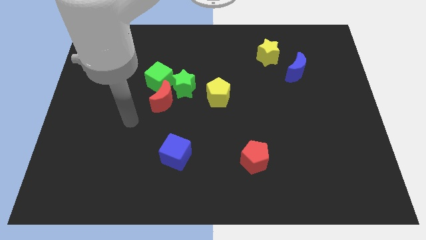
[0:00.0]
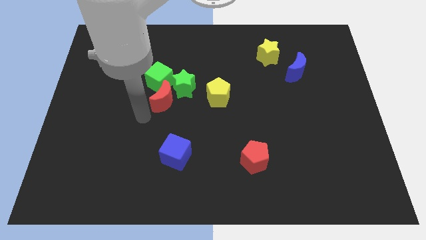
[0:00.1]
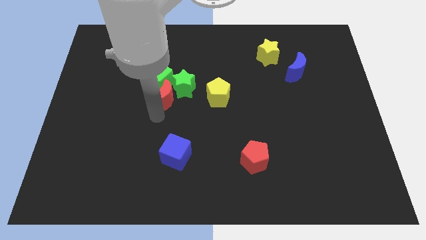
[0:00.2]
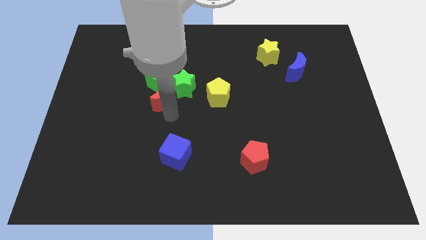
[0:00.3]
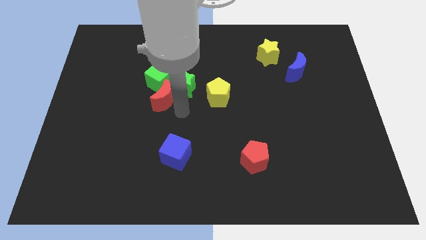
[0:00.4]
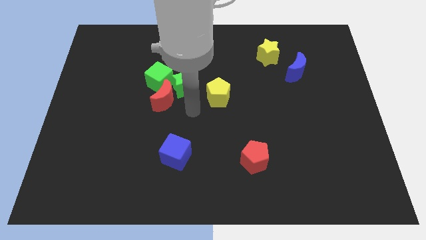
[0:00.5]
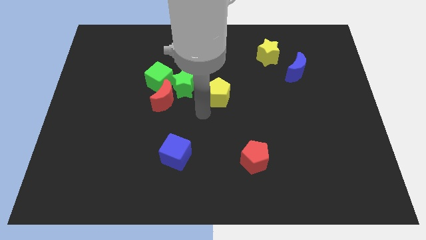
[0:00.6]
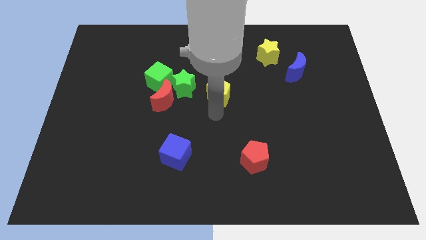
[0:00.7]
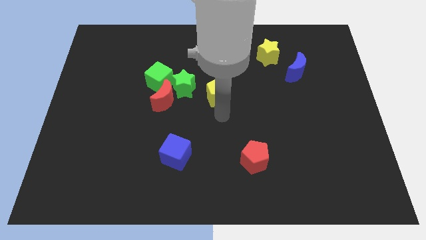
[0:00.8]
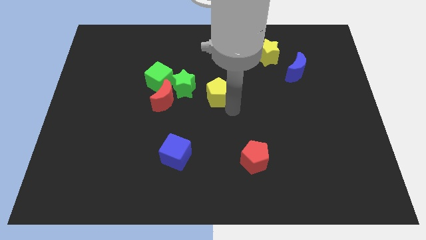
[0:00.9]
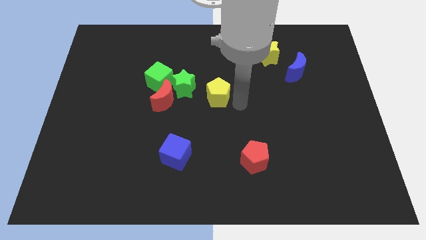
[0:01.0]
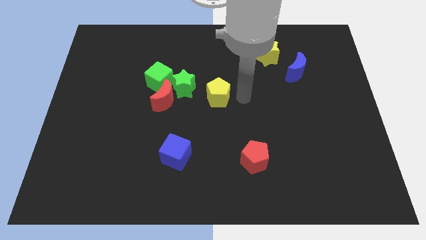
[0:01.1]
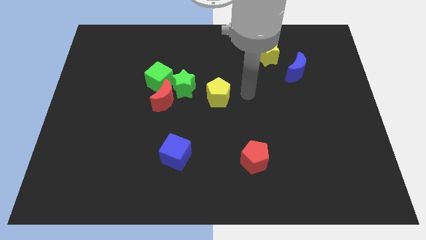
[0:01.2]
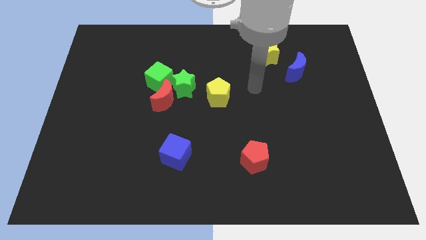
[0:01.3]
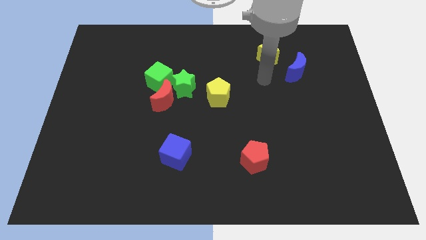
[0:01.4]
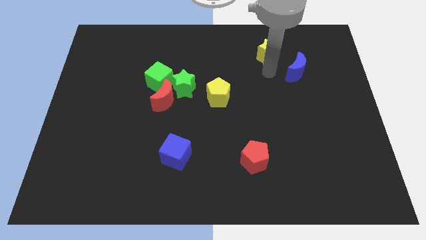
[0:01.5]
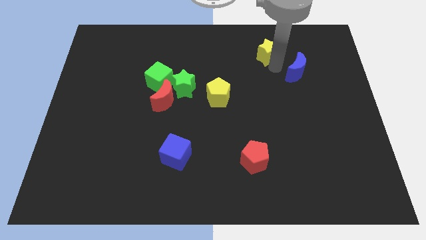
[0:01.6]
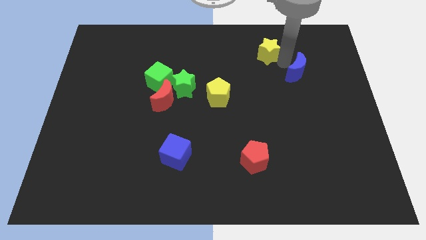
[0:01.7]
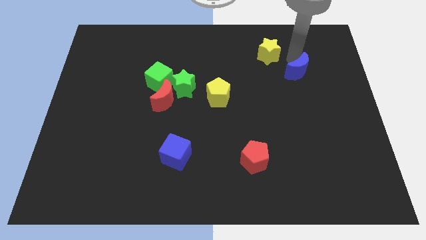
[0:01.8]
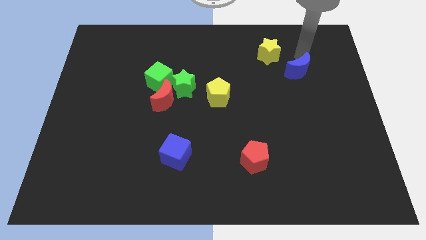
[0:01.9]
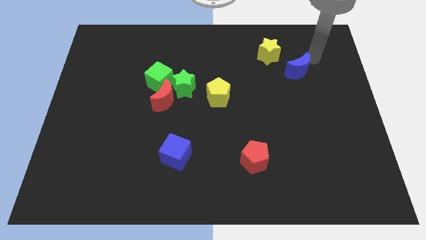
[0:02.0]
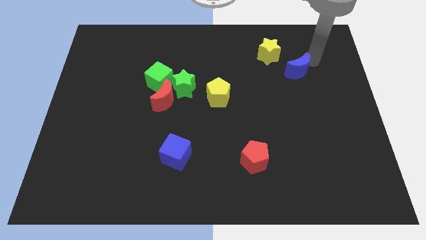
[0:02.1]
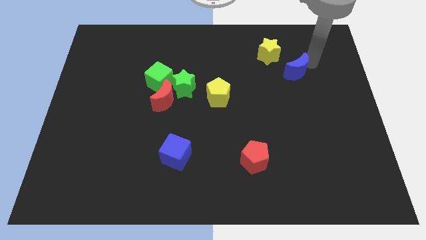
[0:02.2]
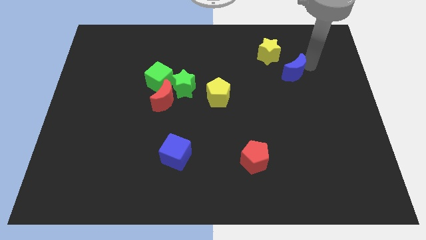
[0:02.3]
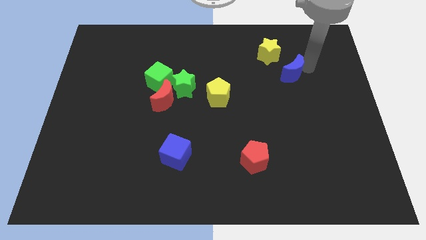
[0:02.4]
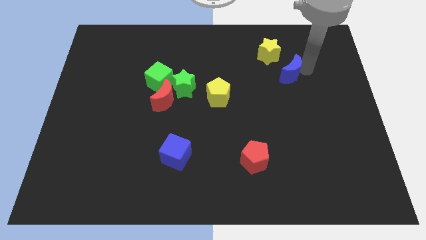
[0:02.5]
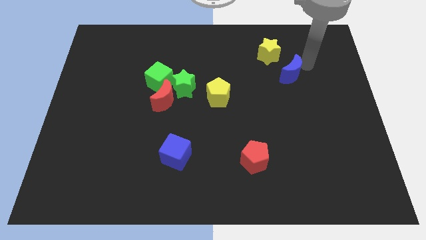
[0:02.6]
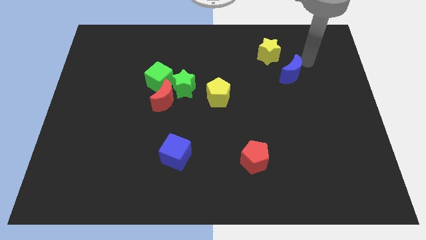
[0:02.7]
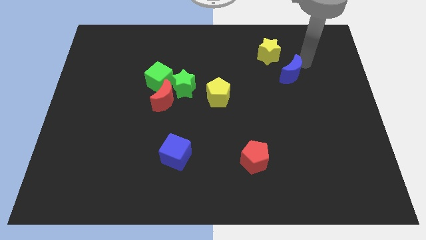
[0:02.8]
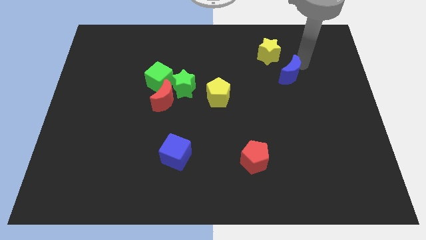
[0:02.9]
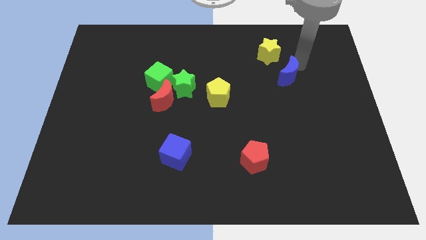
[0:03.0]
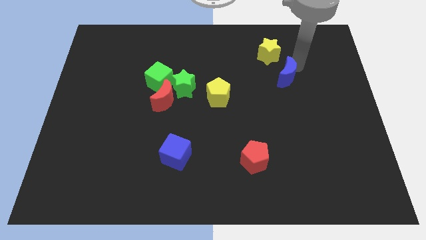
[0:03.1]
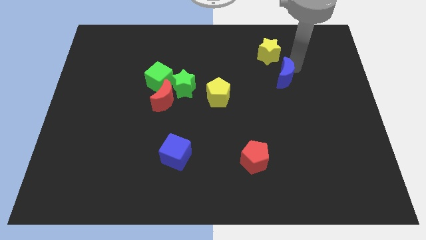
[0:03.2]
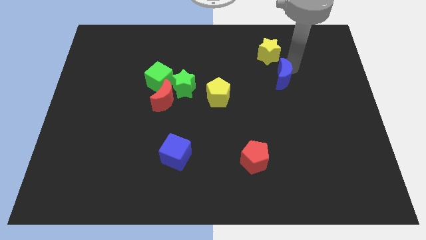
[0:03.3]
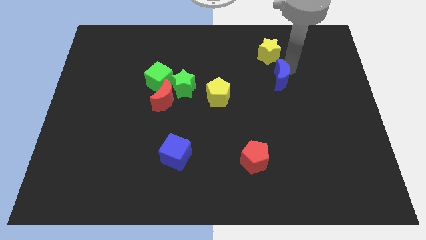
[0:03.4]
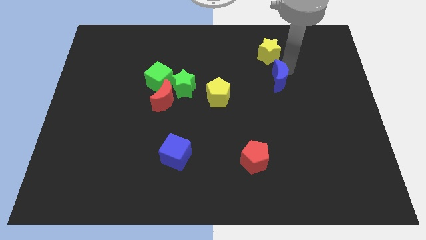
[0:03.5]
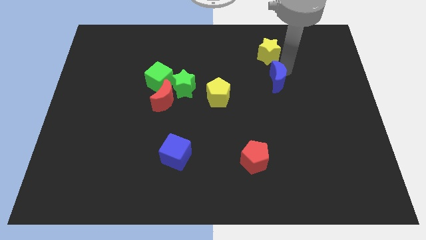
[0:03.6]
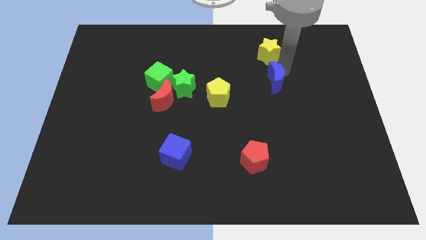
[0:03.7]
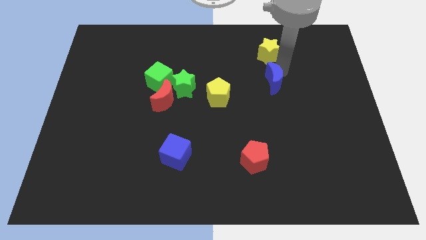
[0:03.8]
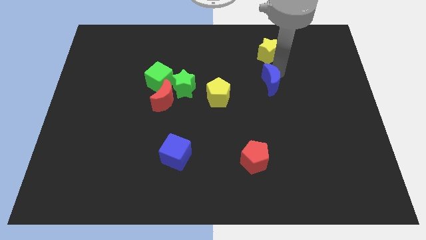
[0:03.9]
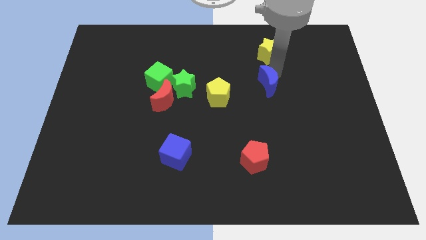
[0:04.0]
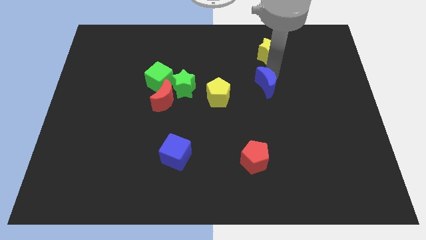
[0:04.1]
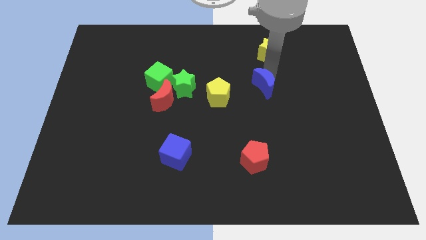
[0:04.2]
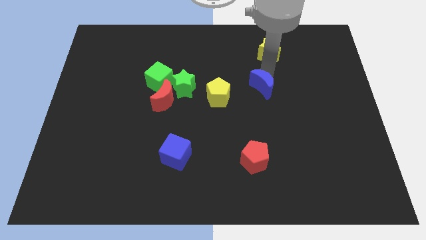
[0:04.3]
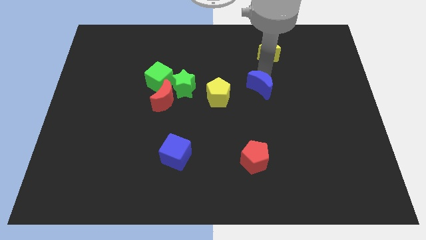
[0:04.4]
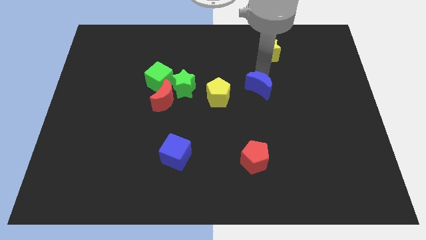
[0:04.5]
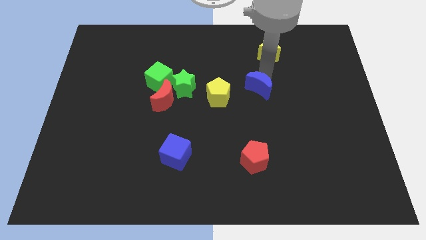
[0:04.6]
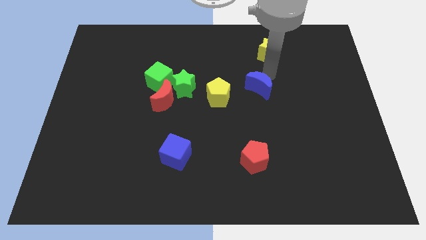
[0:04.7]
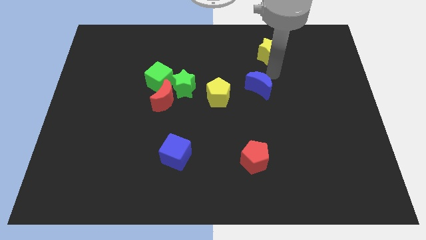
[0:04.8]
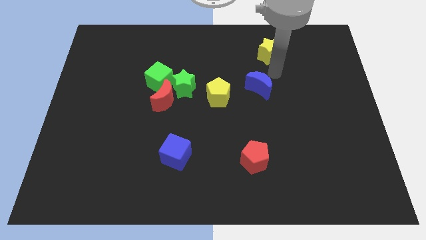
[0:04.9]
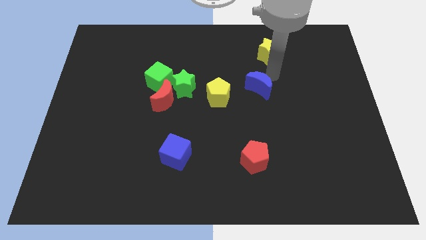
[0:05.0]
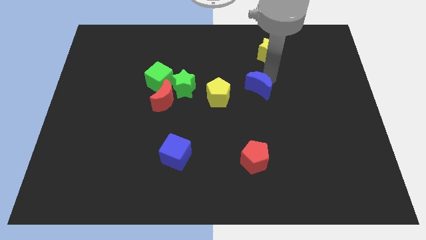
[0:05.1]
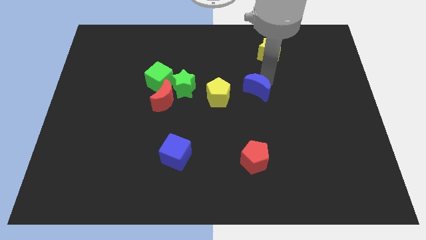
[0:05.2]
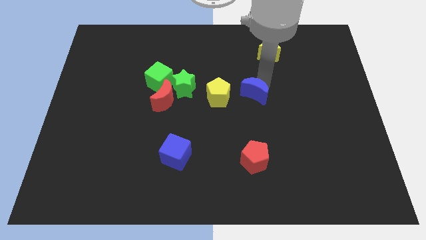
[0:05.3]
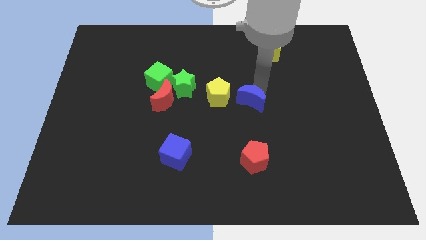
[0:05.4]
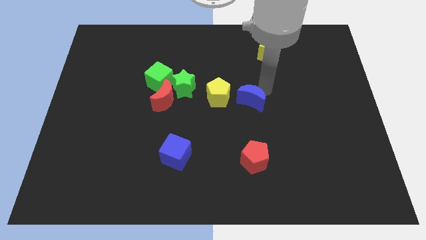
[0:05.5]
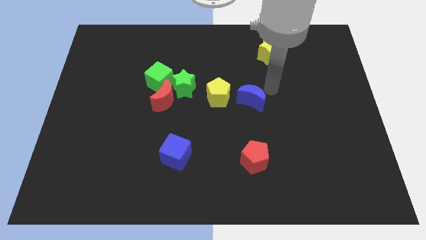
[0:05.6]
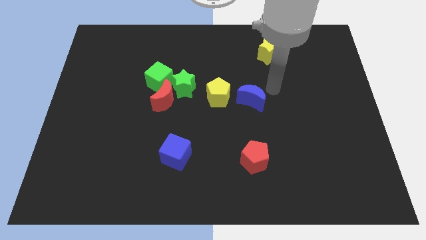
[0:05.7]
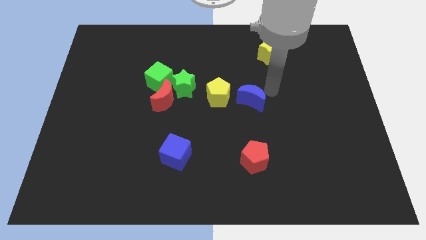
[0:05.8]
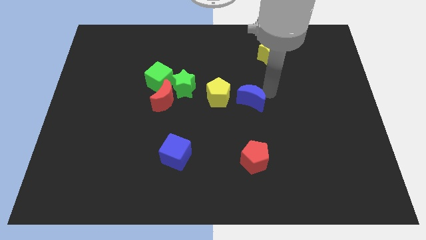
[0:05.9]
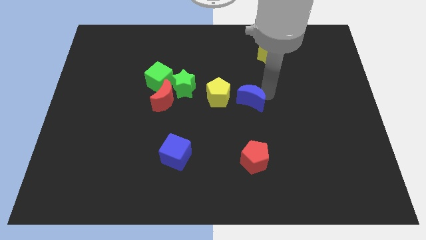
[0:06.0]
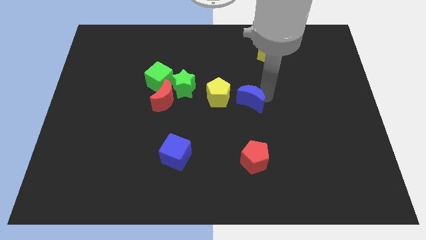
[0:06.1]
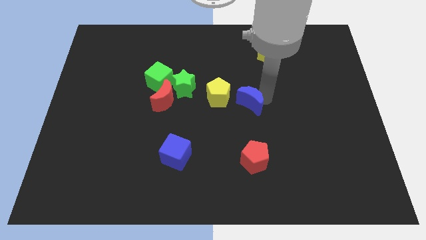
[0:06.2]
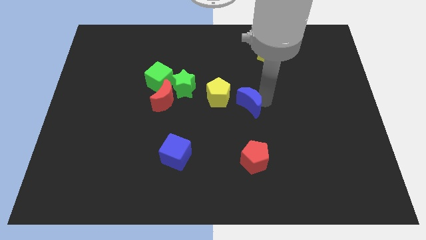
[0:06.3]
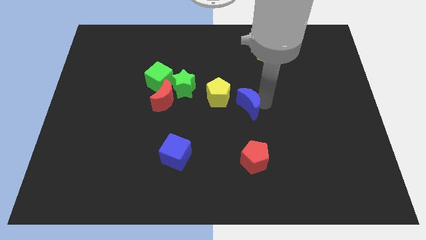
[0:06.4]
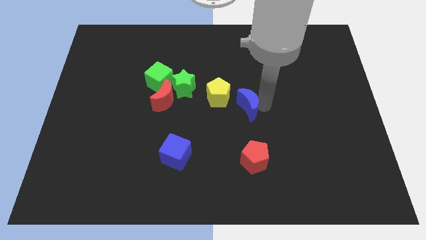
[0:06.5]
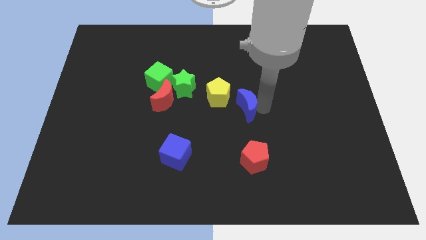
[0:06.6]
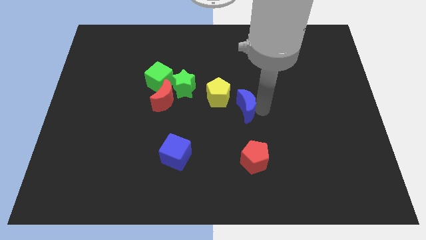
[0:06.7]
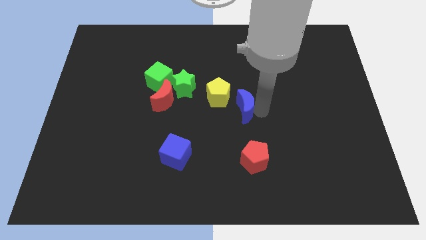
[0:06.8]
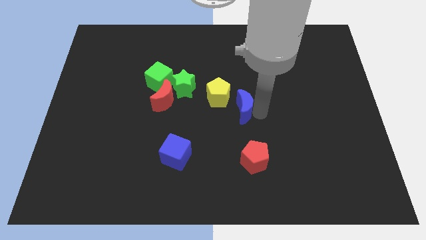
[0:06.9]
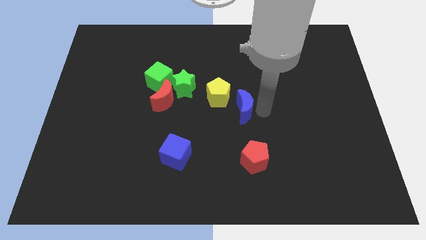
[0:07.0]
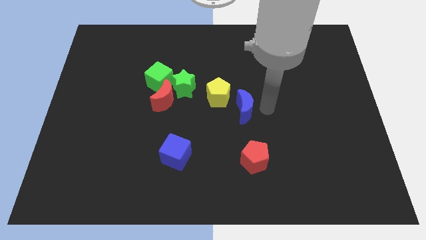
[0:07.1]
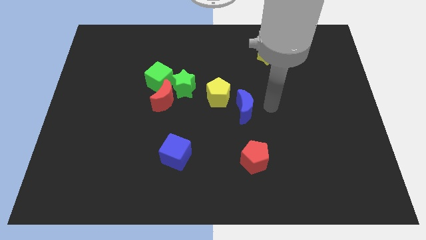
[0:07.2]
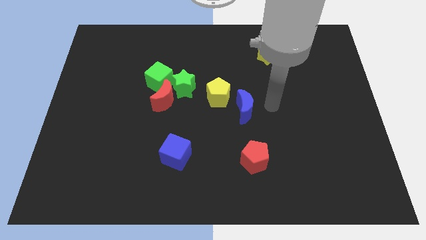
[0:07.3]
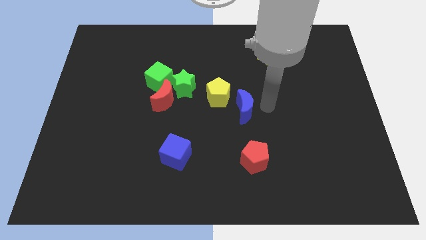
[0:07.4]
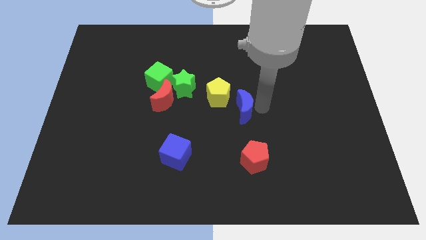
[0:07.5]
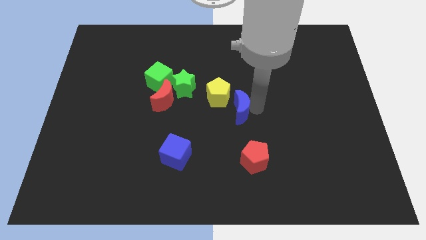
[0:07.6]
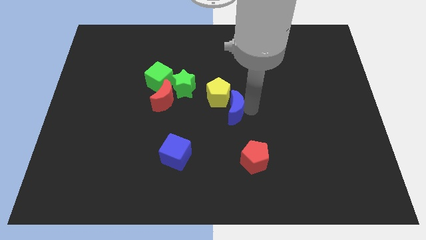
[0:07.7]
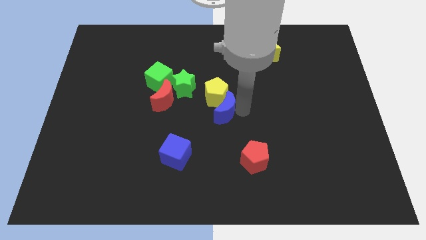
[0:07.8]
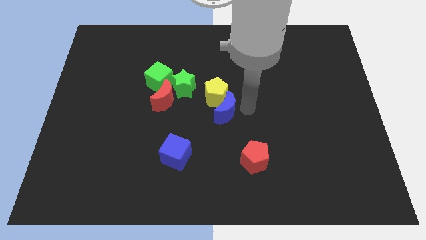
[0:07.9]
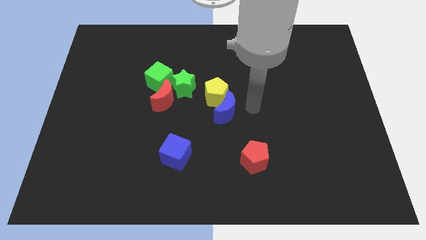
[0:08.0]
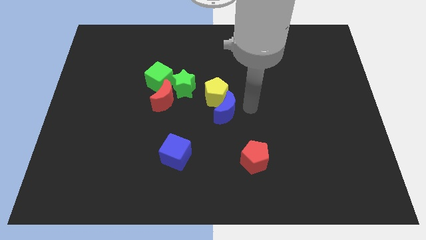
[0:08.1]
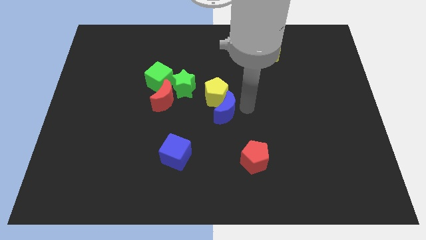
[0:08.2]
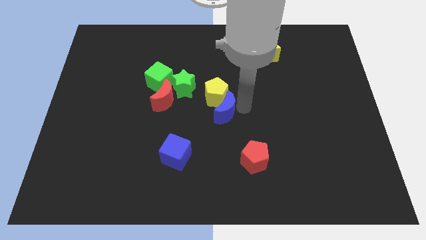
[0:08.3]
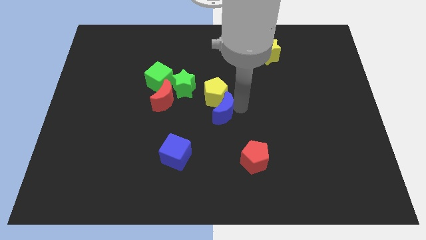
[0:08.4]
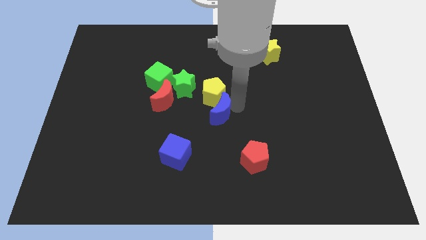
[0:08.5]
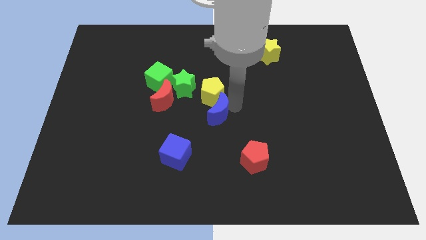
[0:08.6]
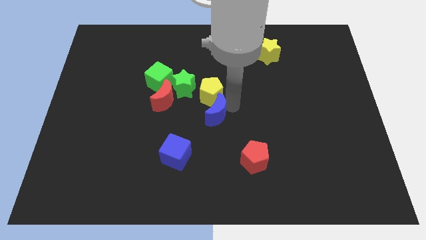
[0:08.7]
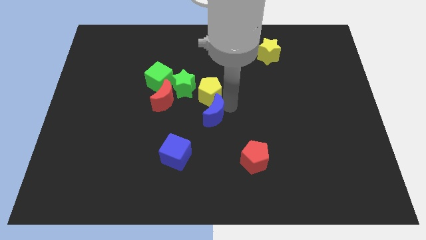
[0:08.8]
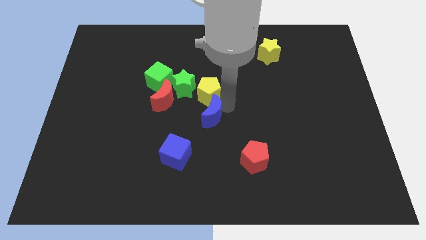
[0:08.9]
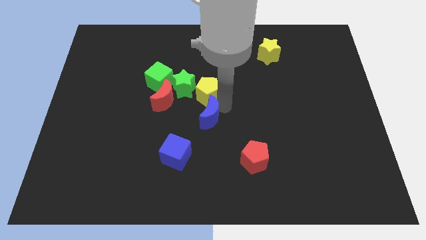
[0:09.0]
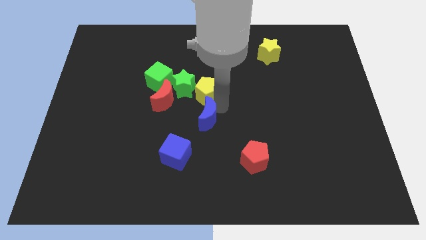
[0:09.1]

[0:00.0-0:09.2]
put the blue moon to the bottom right of the red moon
